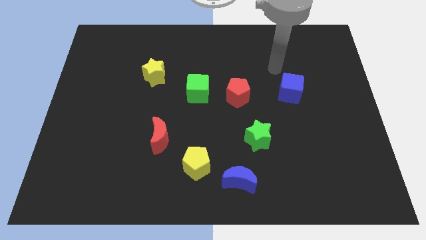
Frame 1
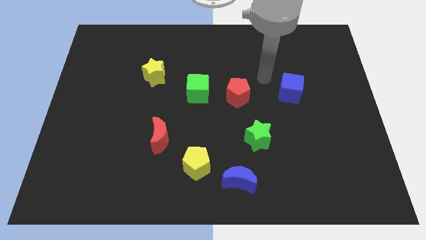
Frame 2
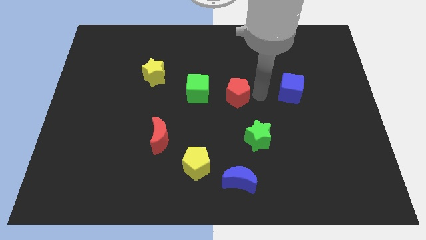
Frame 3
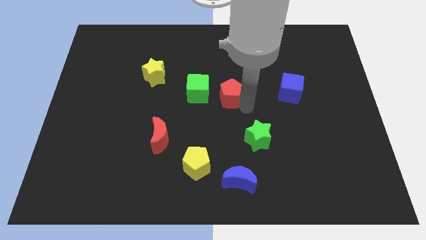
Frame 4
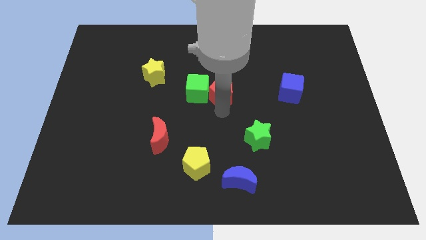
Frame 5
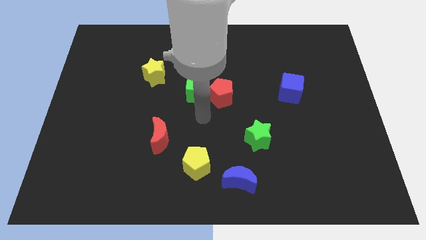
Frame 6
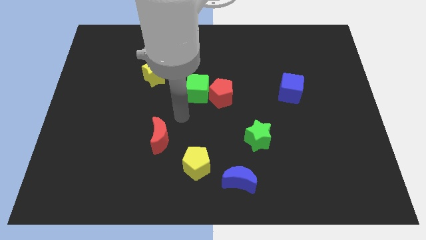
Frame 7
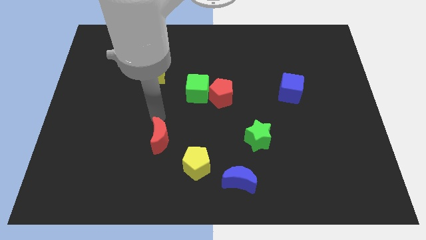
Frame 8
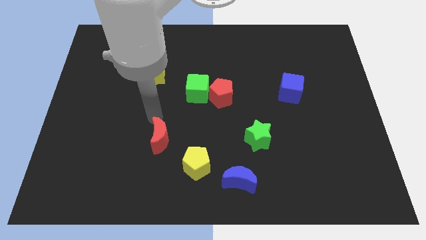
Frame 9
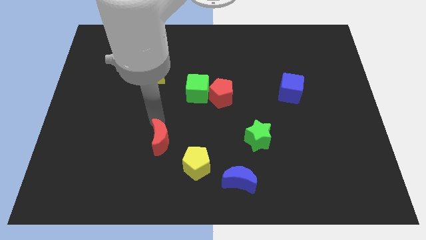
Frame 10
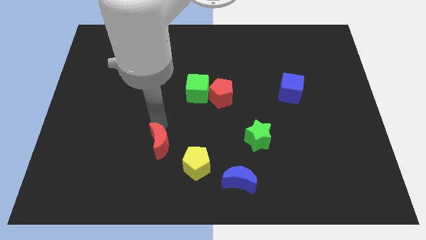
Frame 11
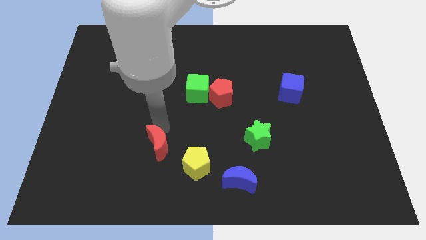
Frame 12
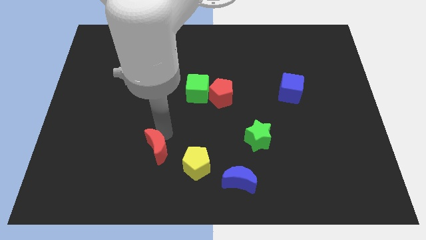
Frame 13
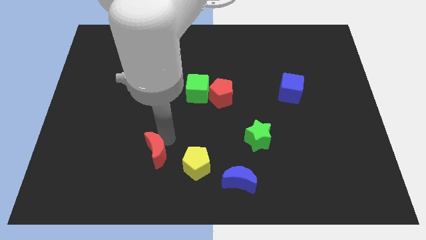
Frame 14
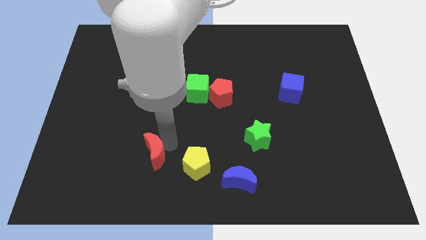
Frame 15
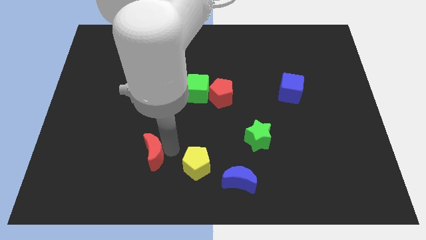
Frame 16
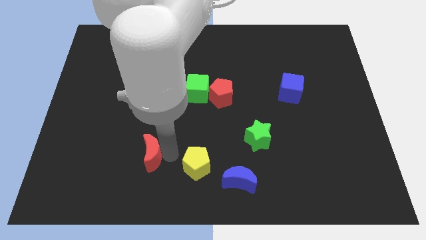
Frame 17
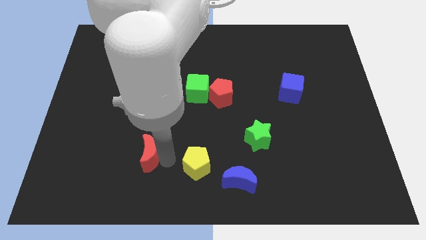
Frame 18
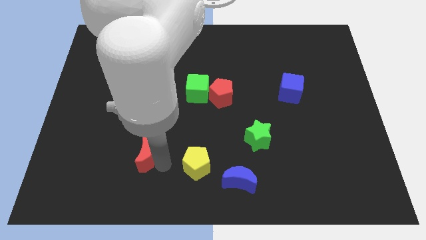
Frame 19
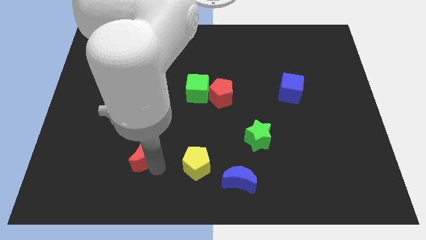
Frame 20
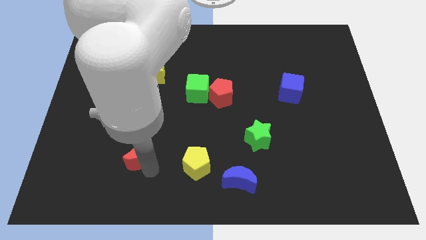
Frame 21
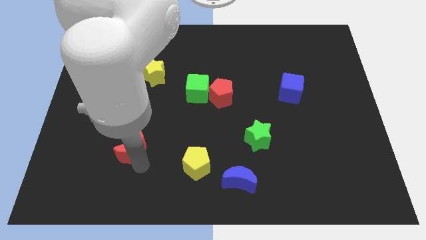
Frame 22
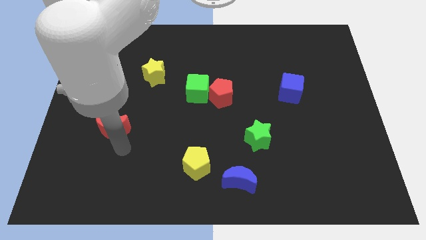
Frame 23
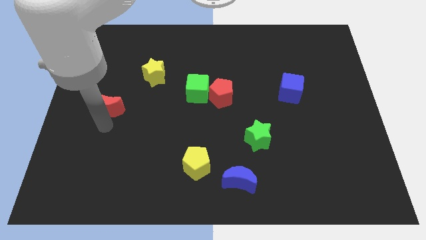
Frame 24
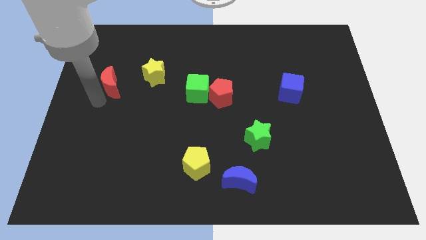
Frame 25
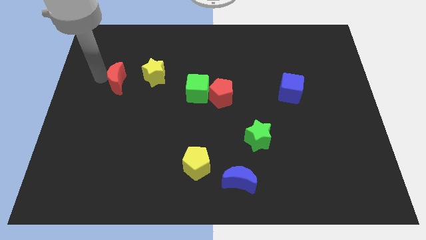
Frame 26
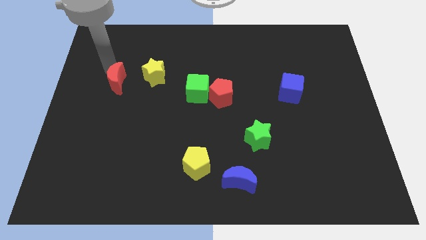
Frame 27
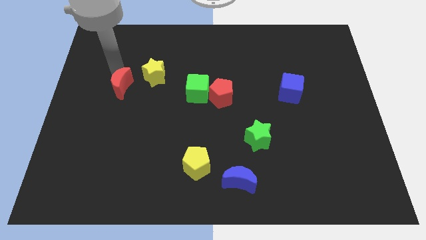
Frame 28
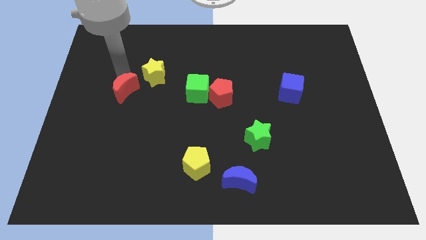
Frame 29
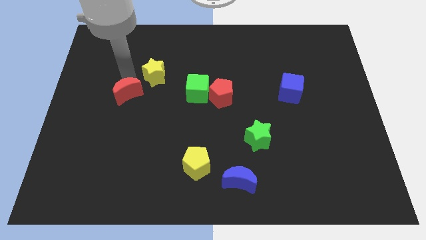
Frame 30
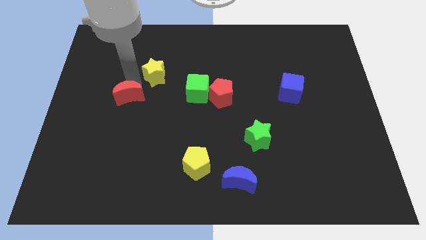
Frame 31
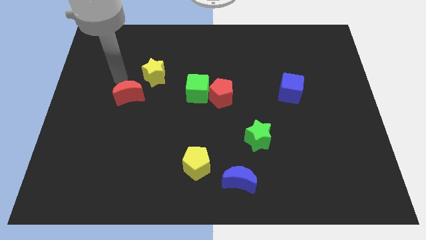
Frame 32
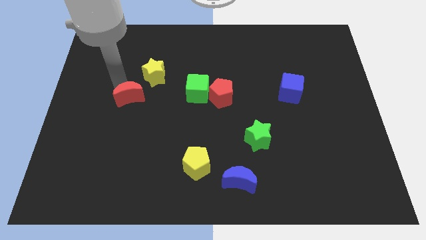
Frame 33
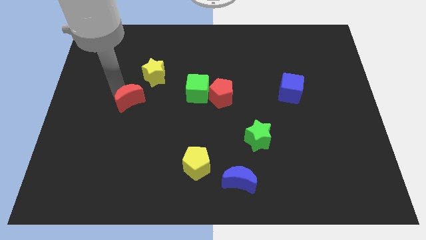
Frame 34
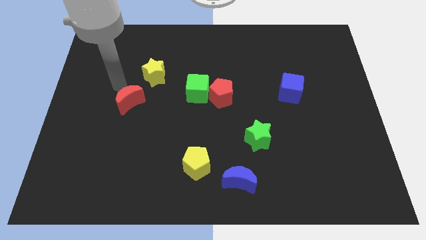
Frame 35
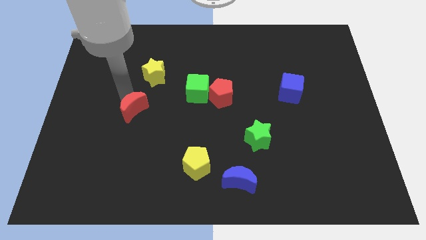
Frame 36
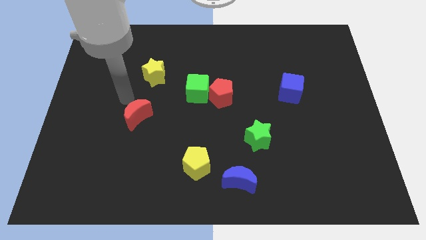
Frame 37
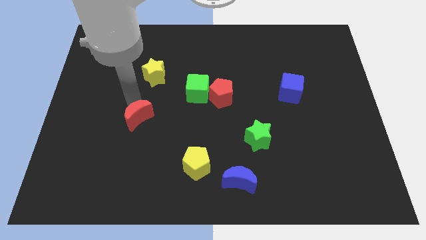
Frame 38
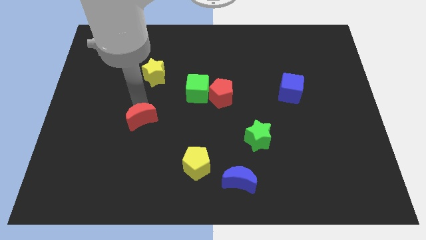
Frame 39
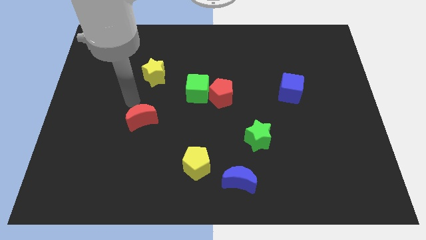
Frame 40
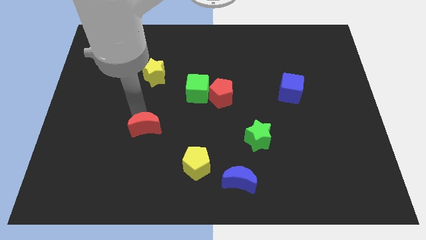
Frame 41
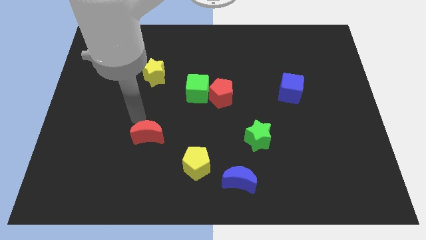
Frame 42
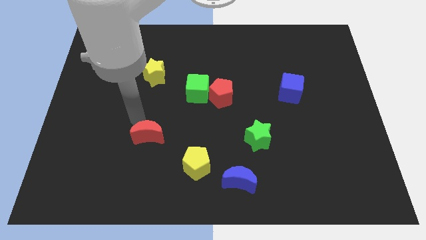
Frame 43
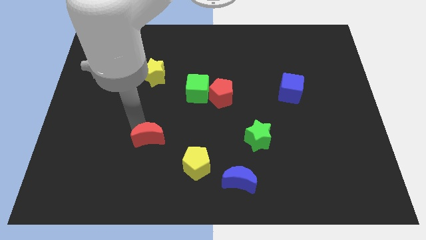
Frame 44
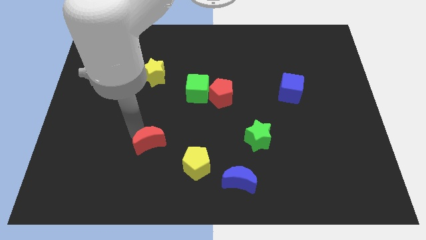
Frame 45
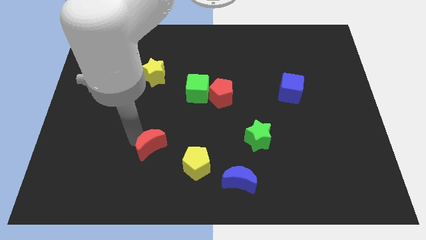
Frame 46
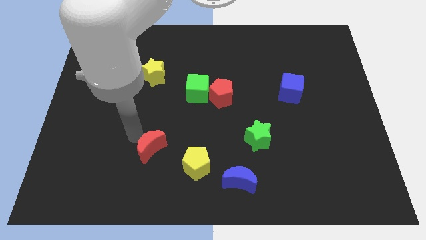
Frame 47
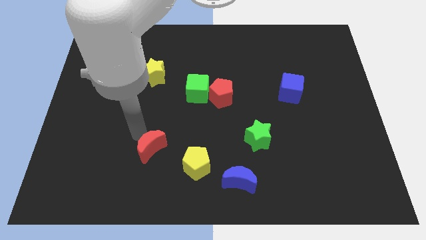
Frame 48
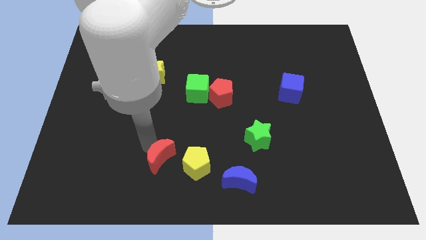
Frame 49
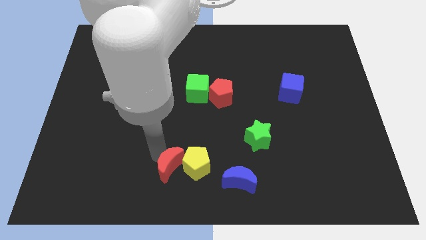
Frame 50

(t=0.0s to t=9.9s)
push the red moon to the bottom

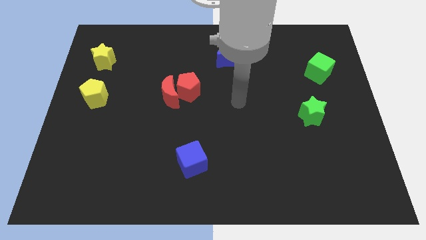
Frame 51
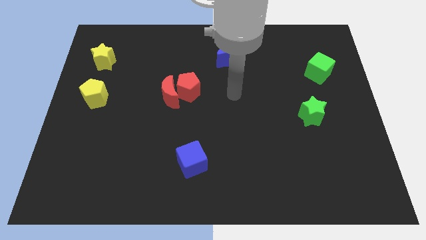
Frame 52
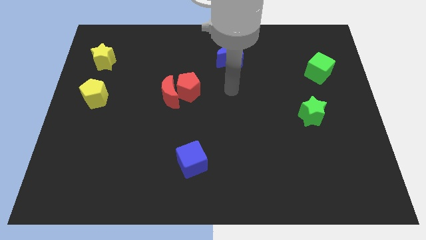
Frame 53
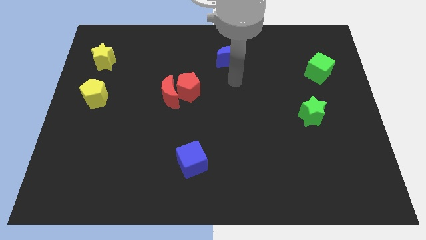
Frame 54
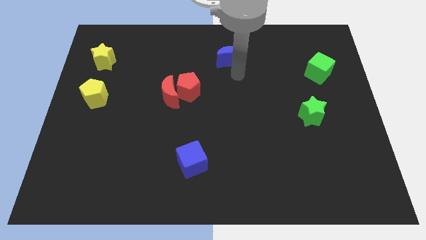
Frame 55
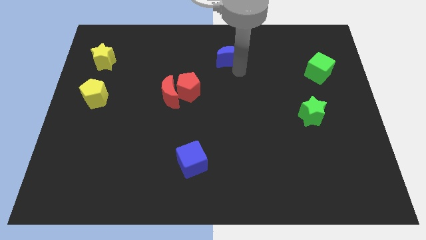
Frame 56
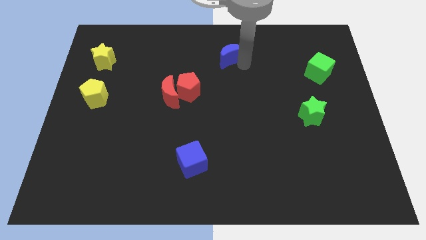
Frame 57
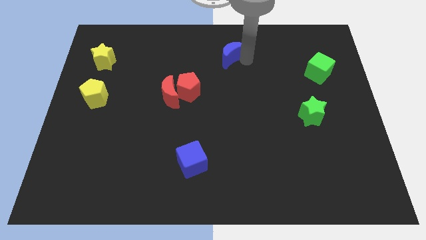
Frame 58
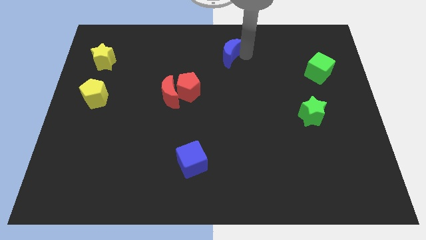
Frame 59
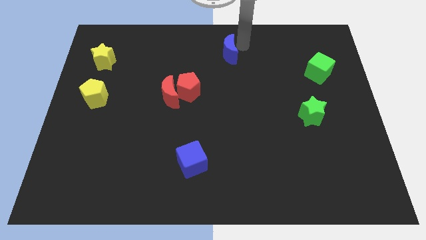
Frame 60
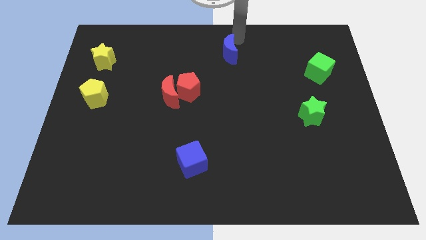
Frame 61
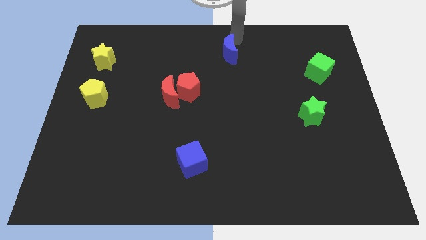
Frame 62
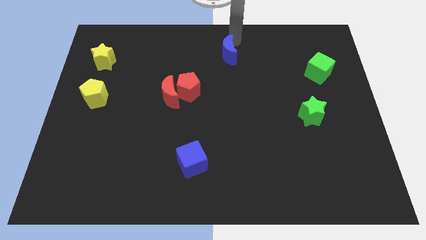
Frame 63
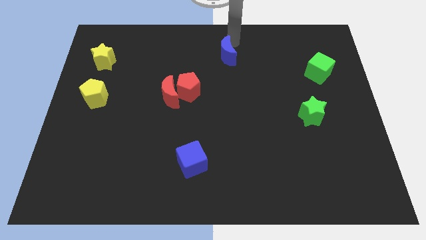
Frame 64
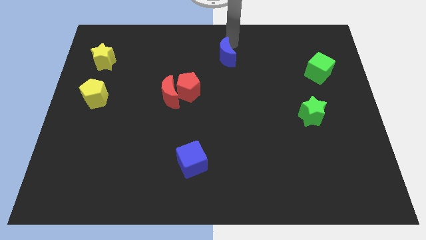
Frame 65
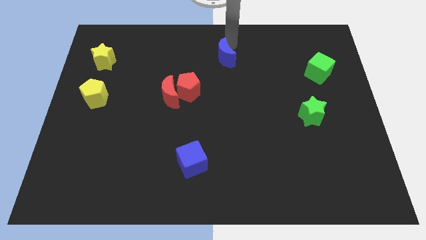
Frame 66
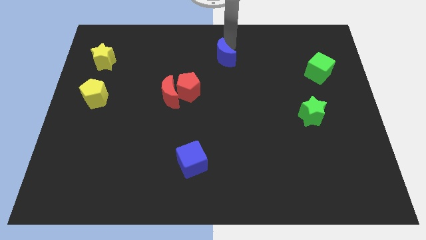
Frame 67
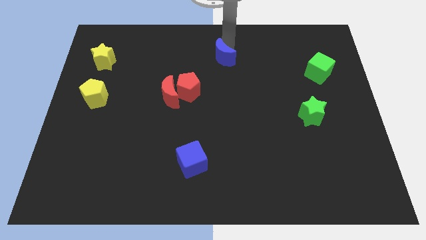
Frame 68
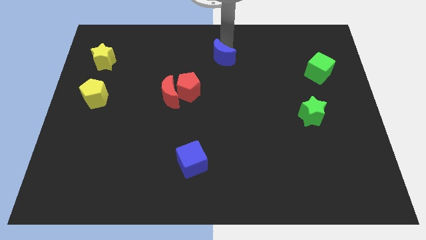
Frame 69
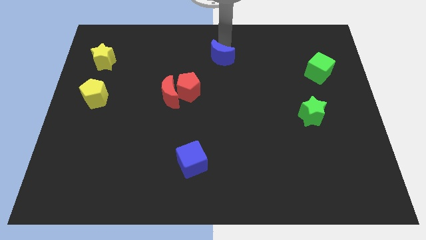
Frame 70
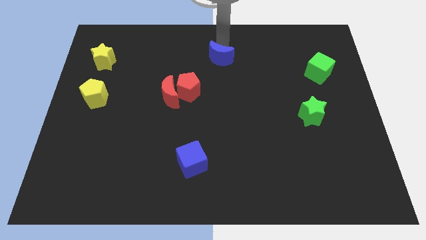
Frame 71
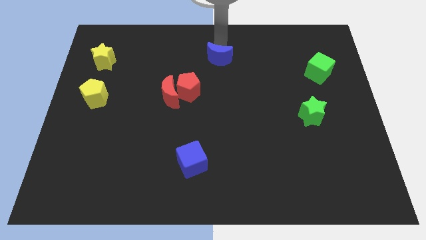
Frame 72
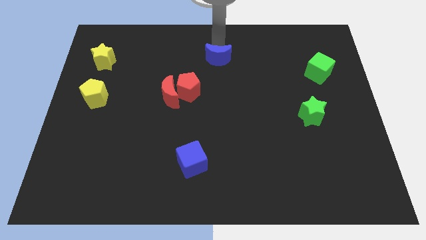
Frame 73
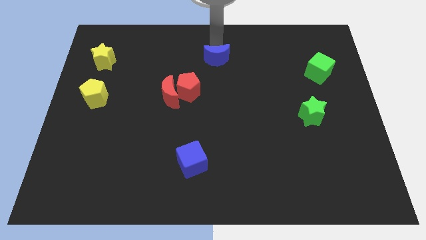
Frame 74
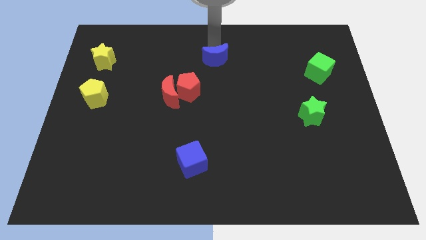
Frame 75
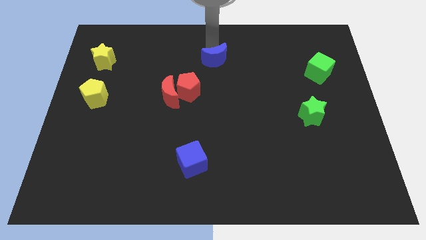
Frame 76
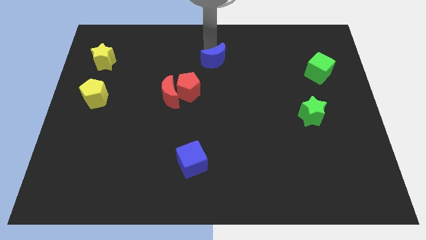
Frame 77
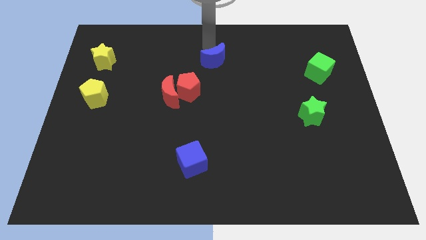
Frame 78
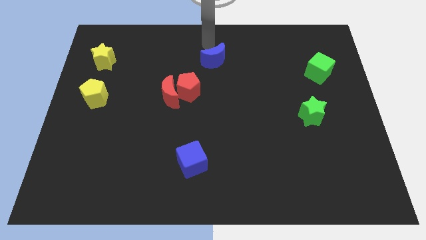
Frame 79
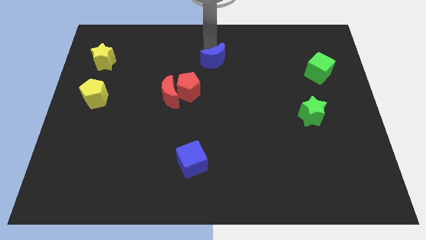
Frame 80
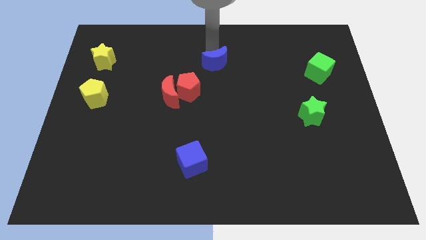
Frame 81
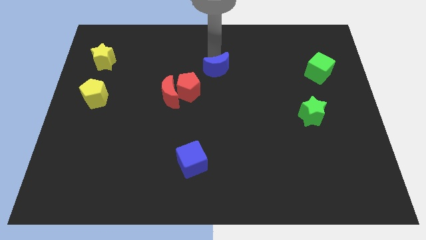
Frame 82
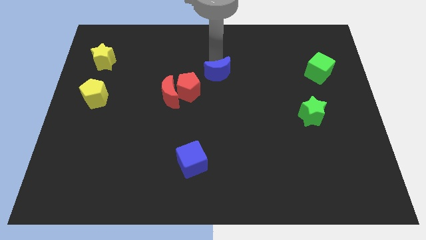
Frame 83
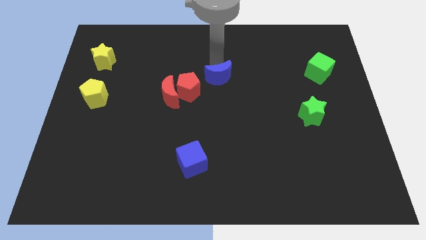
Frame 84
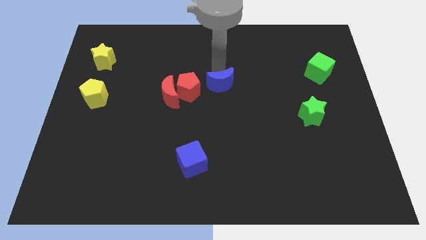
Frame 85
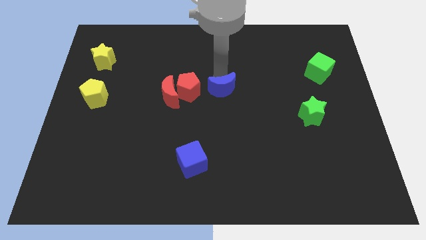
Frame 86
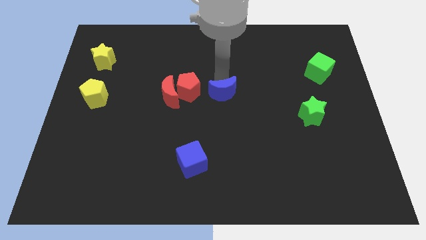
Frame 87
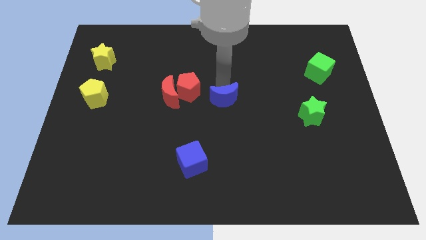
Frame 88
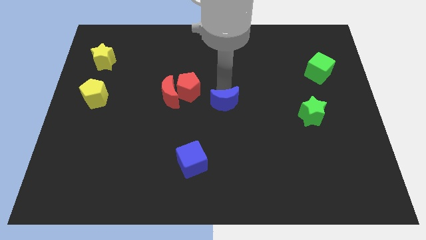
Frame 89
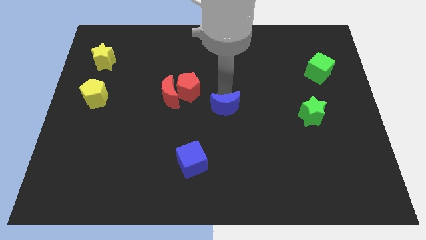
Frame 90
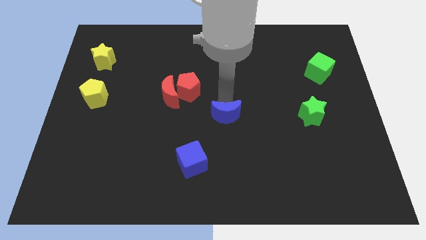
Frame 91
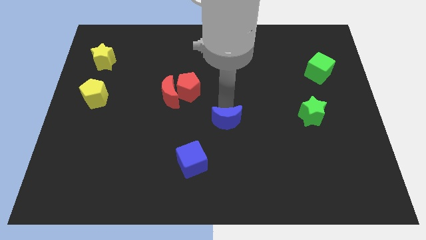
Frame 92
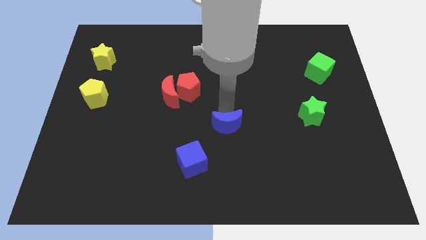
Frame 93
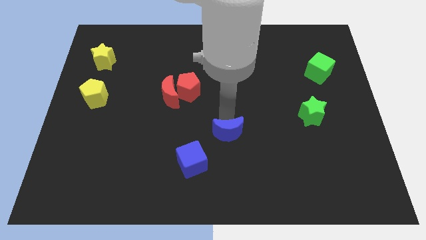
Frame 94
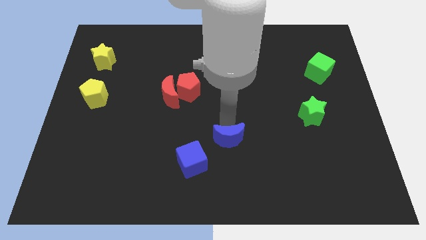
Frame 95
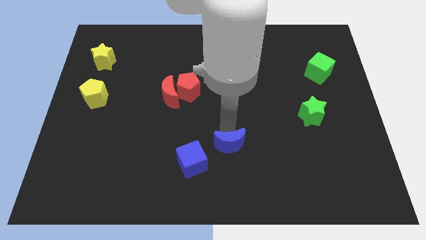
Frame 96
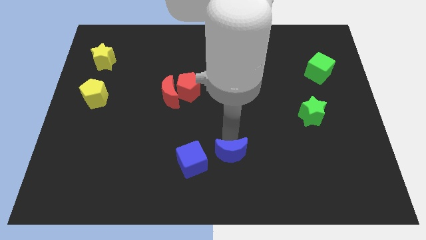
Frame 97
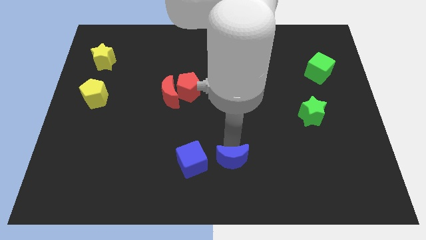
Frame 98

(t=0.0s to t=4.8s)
put the blue moon to the bottom side
